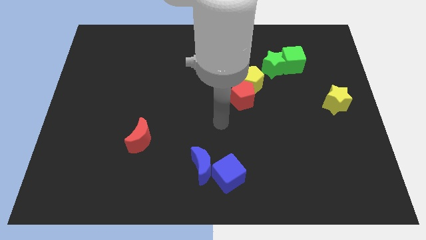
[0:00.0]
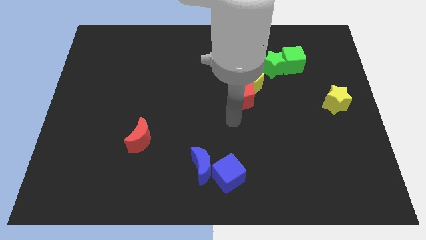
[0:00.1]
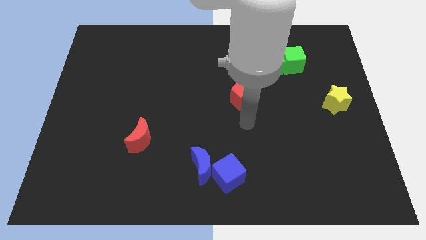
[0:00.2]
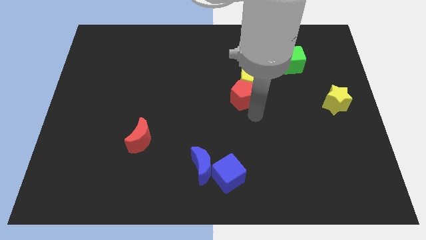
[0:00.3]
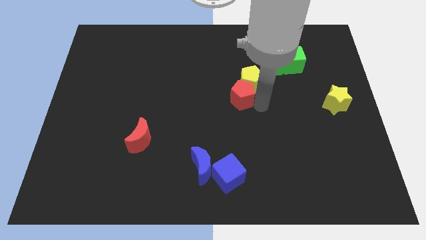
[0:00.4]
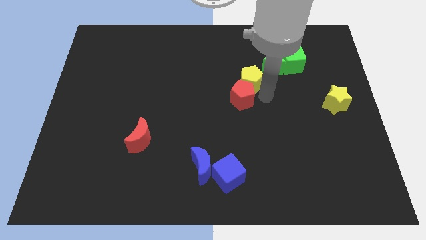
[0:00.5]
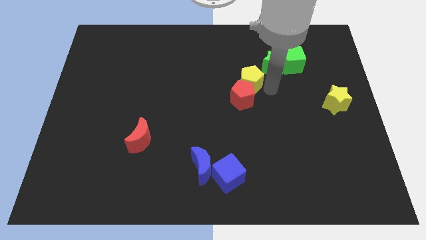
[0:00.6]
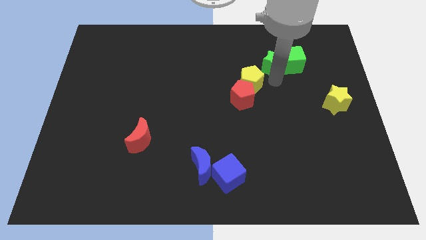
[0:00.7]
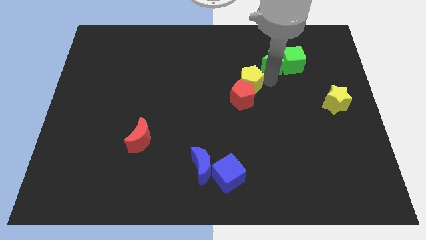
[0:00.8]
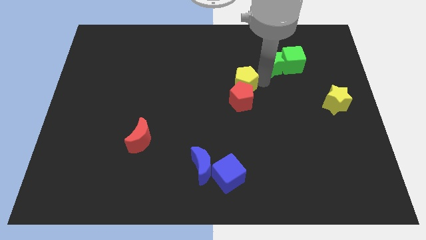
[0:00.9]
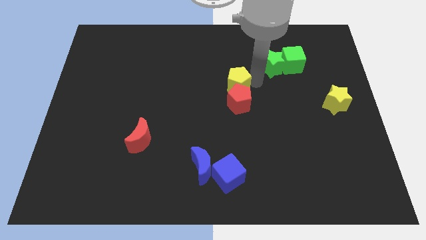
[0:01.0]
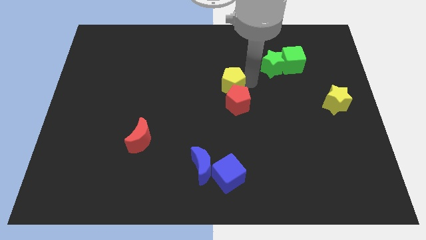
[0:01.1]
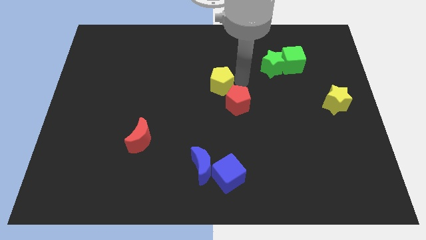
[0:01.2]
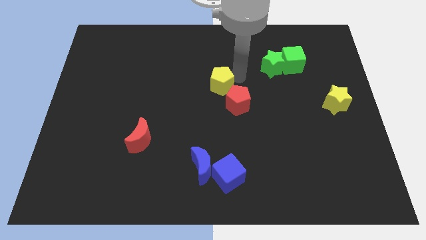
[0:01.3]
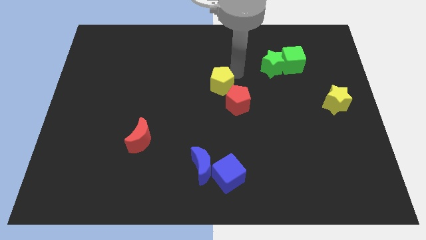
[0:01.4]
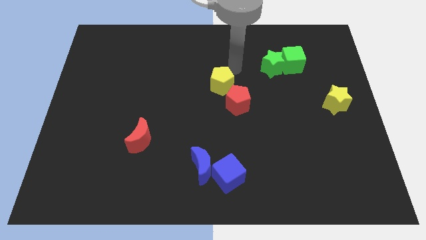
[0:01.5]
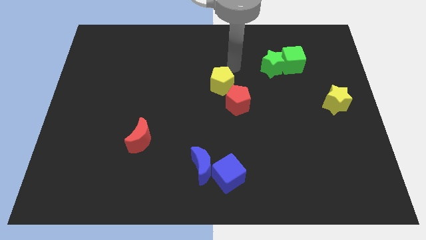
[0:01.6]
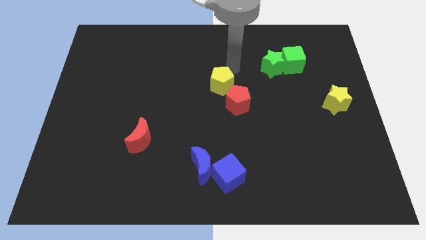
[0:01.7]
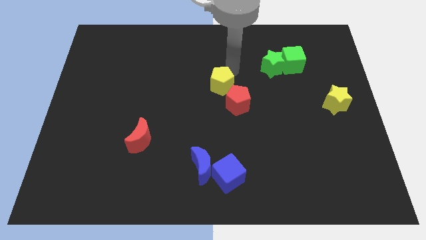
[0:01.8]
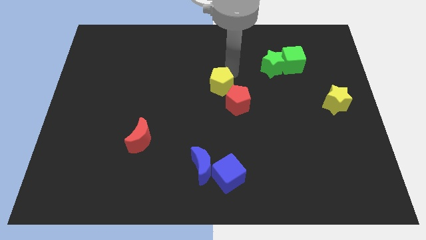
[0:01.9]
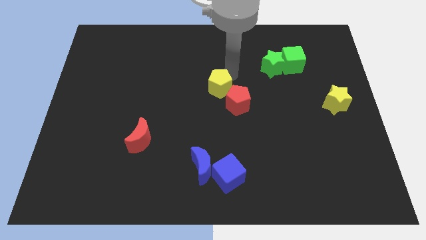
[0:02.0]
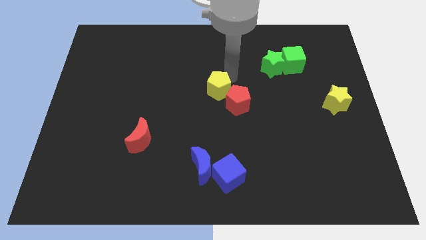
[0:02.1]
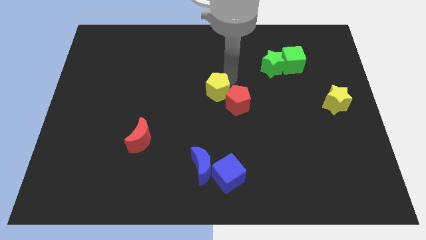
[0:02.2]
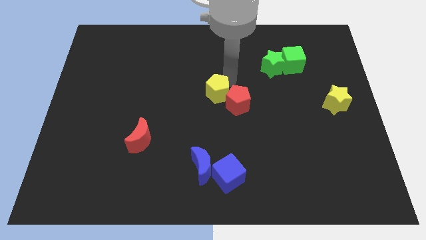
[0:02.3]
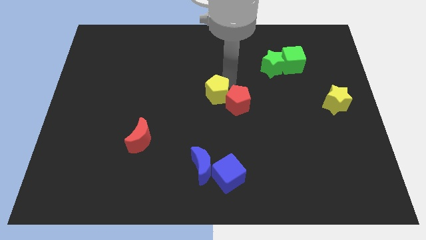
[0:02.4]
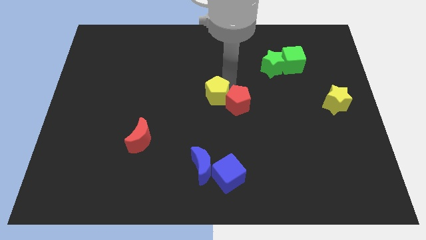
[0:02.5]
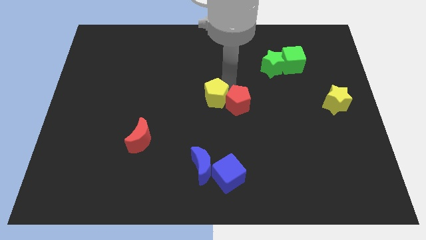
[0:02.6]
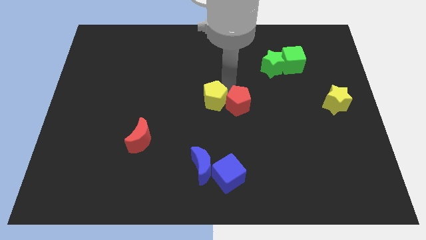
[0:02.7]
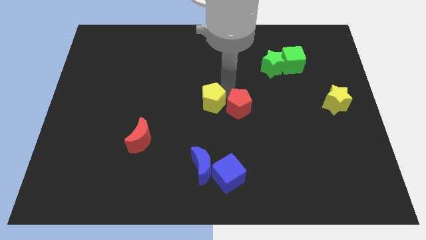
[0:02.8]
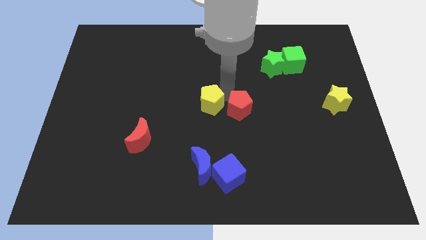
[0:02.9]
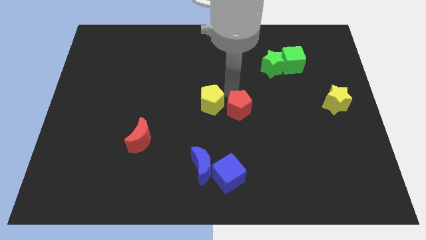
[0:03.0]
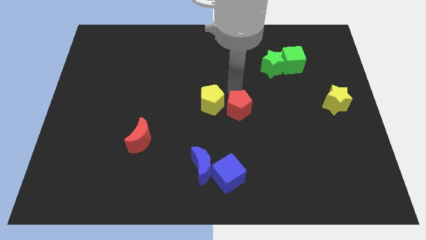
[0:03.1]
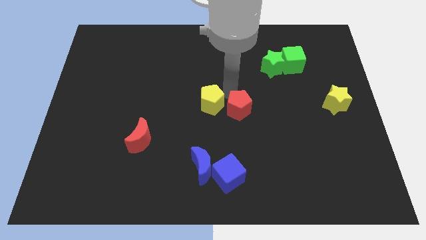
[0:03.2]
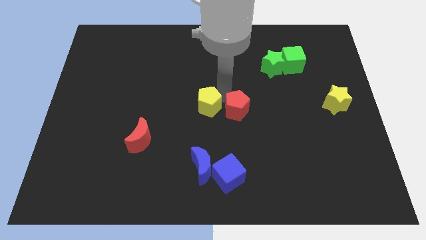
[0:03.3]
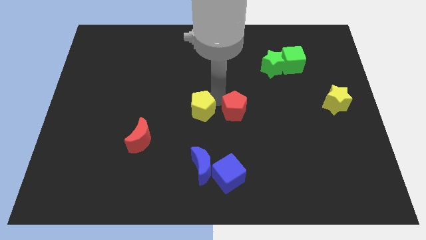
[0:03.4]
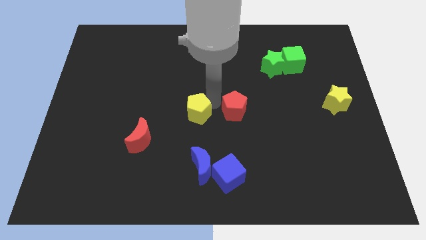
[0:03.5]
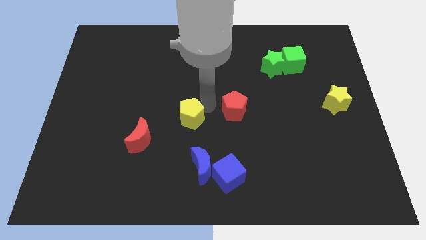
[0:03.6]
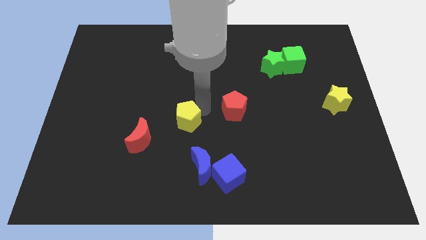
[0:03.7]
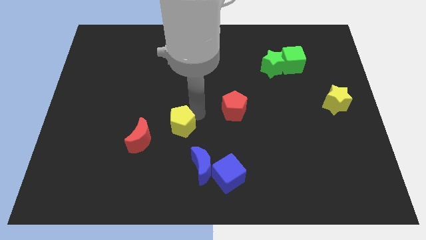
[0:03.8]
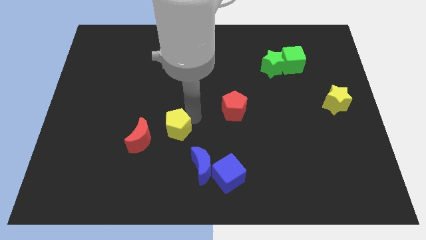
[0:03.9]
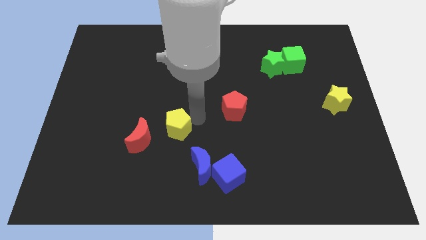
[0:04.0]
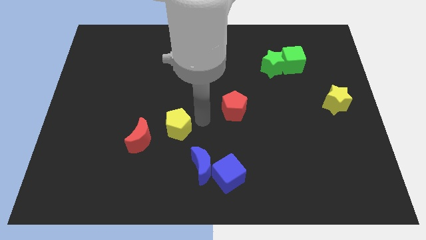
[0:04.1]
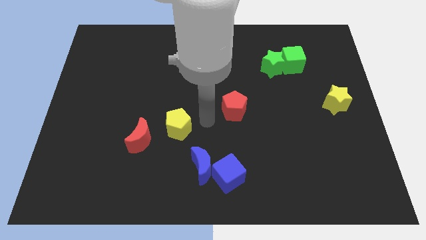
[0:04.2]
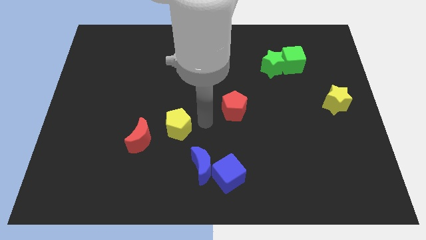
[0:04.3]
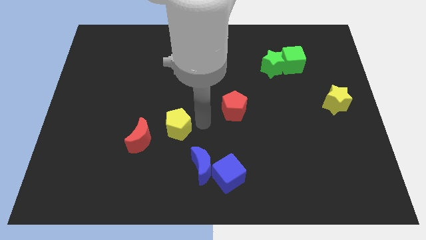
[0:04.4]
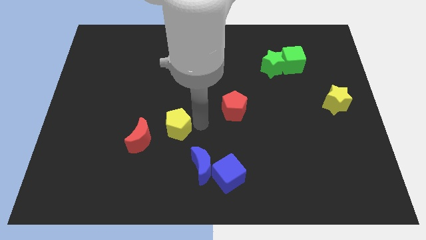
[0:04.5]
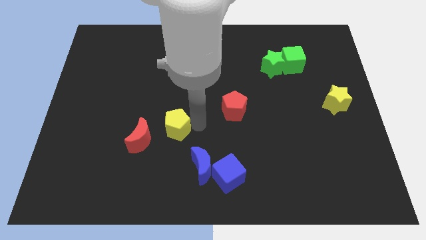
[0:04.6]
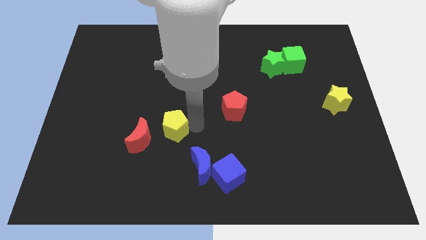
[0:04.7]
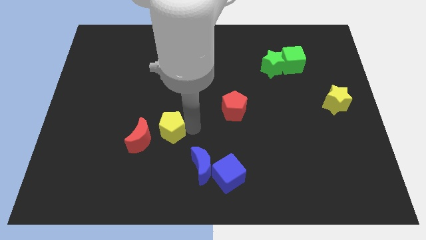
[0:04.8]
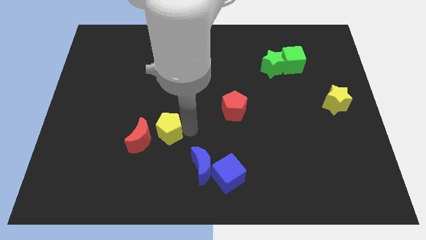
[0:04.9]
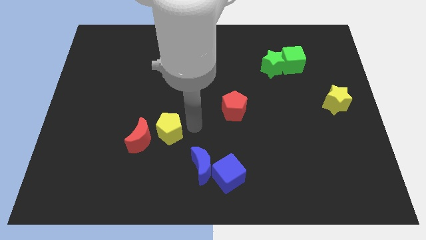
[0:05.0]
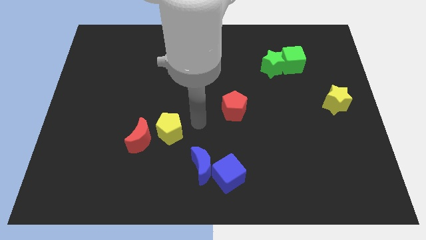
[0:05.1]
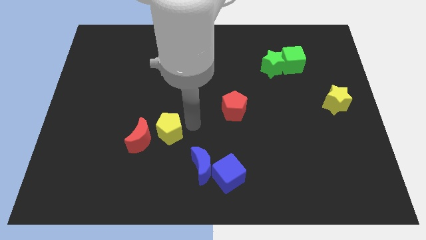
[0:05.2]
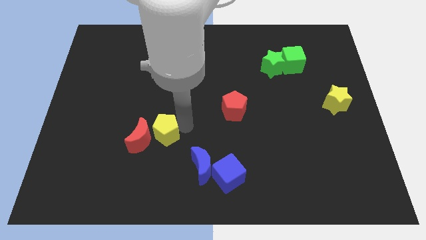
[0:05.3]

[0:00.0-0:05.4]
slide the yellow pentagon towards the red moon

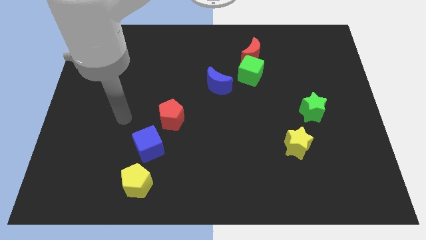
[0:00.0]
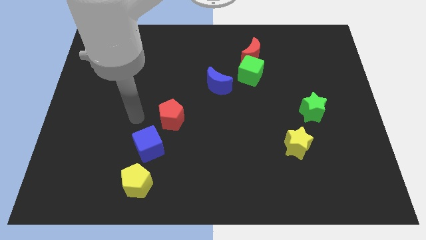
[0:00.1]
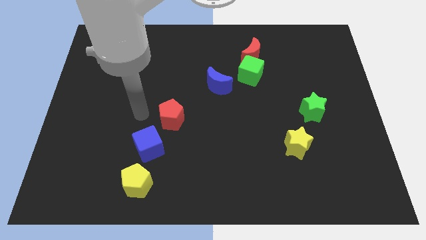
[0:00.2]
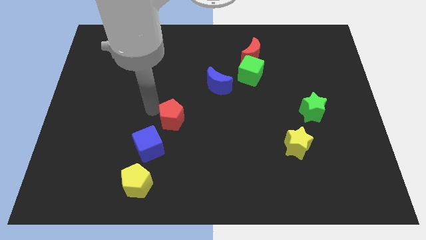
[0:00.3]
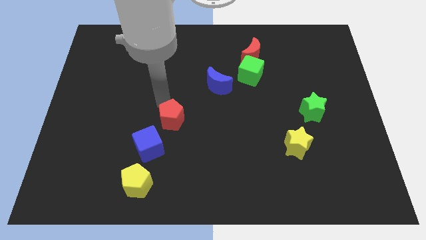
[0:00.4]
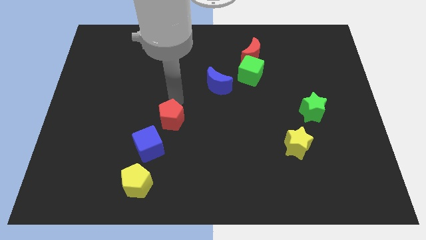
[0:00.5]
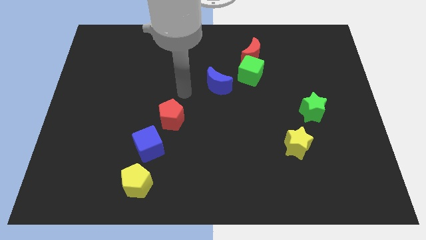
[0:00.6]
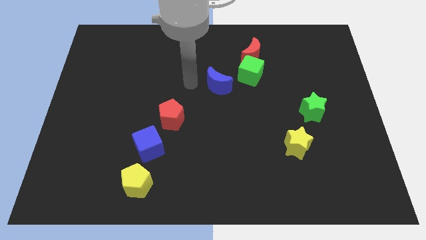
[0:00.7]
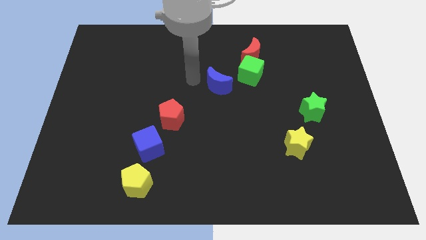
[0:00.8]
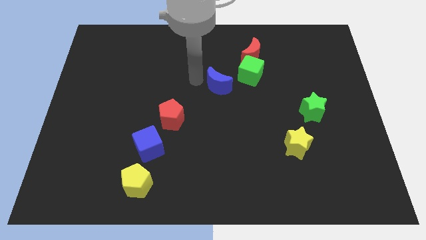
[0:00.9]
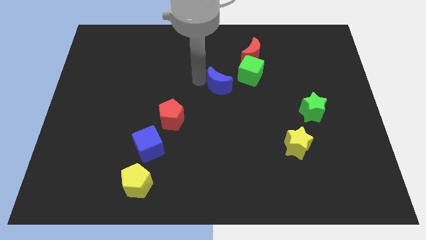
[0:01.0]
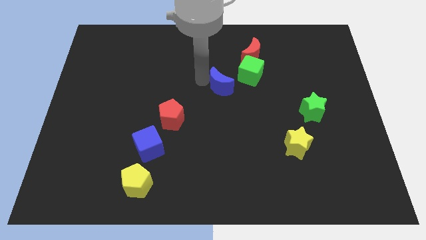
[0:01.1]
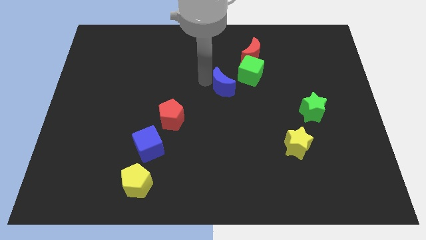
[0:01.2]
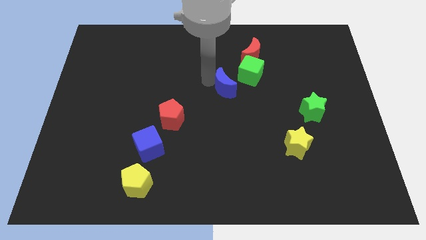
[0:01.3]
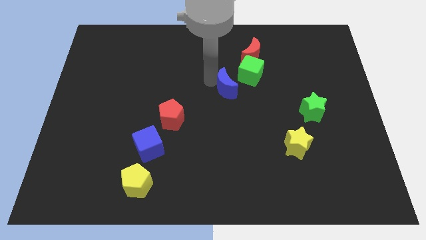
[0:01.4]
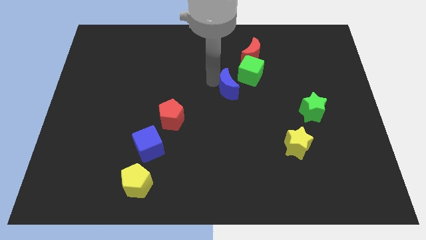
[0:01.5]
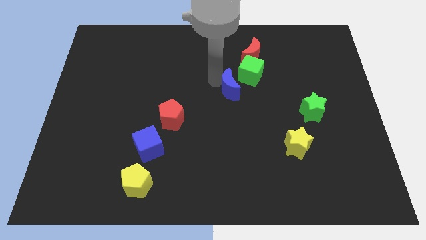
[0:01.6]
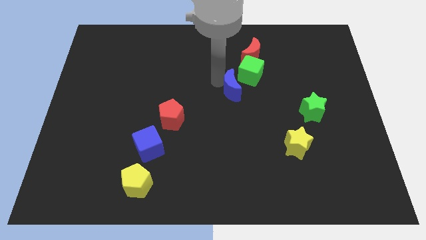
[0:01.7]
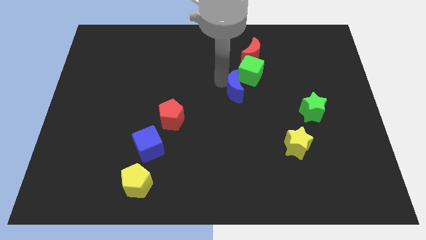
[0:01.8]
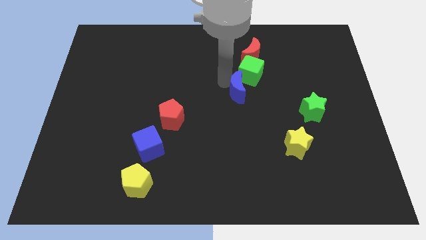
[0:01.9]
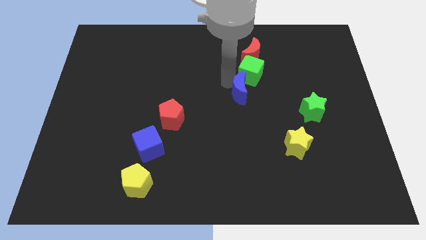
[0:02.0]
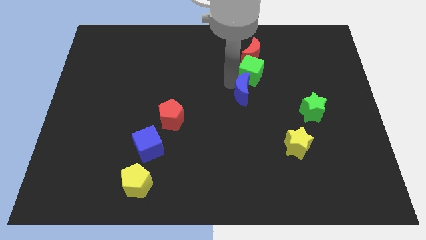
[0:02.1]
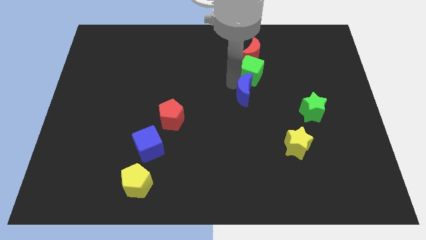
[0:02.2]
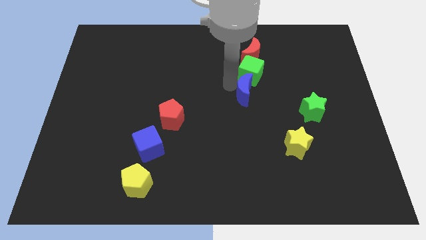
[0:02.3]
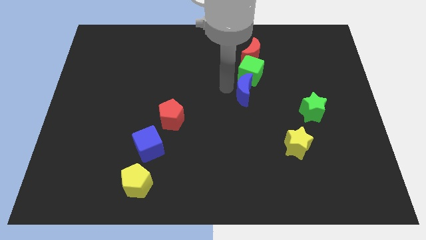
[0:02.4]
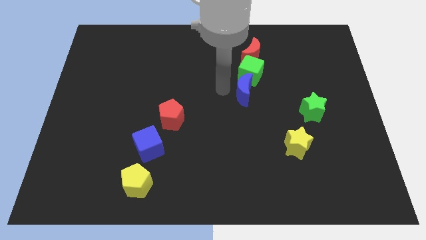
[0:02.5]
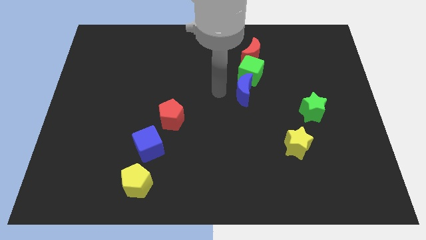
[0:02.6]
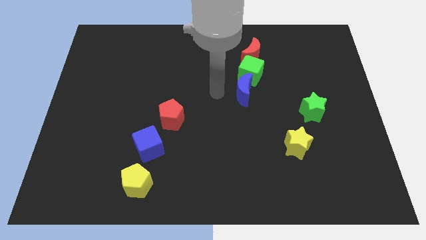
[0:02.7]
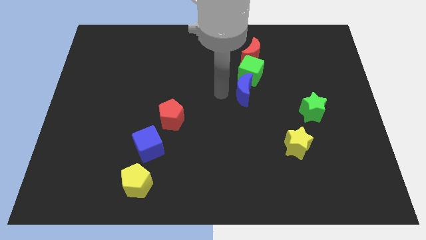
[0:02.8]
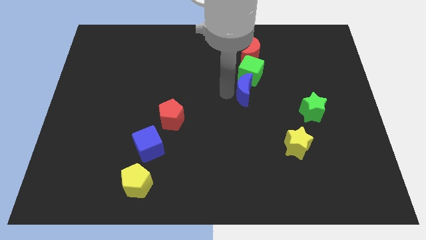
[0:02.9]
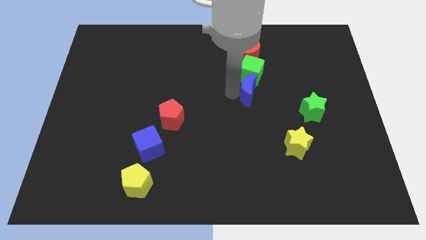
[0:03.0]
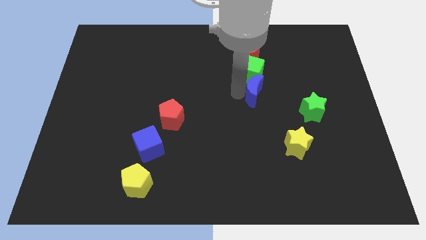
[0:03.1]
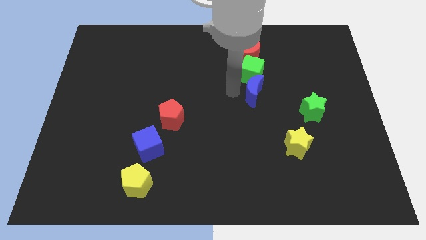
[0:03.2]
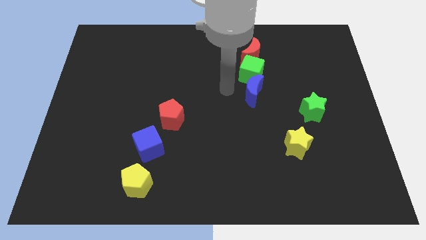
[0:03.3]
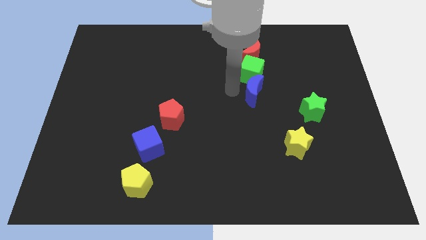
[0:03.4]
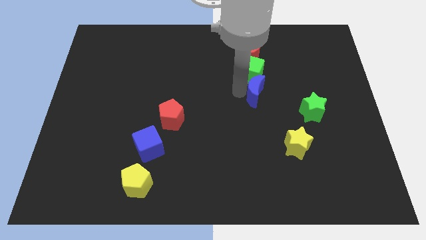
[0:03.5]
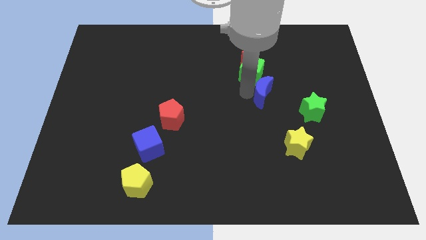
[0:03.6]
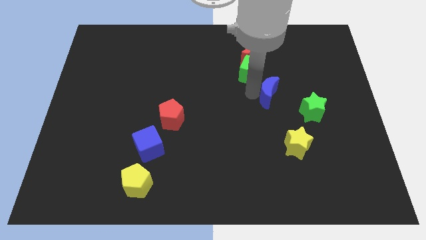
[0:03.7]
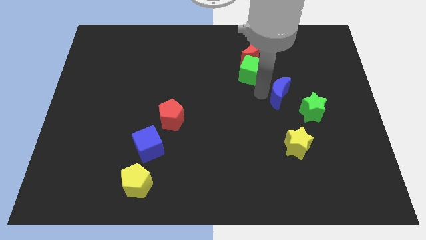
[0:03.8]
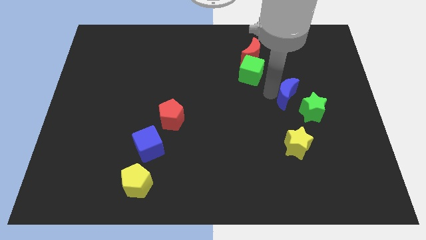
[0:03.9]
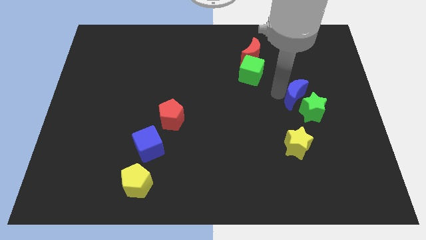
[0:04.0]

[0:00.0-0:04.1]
move the blue moon close to the green star
